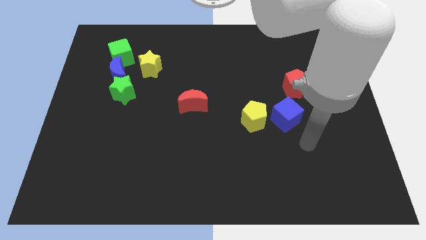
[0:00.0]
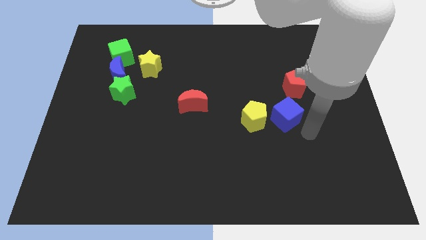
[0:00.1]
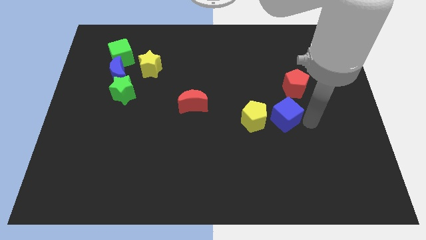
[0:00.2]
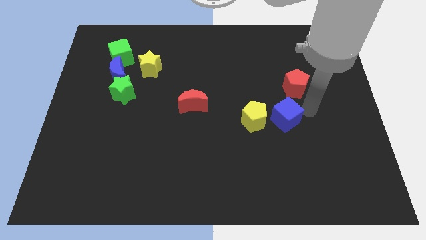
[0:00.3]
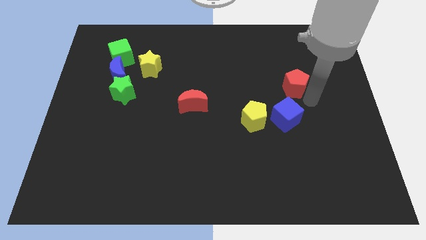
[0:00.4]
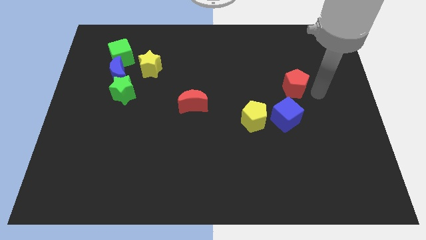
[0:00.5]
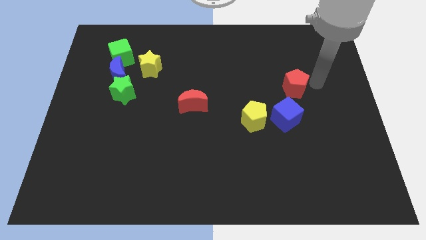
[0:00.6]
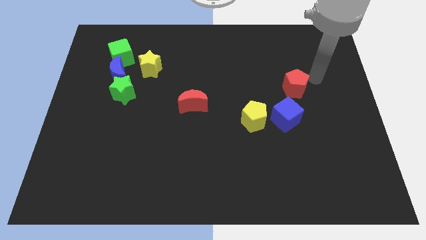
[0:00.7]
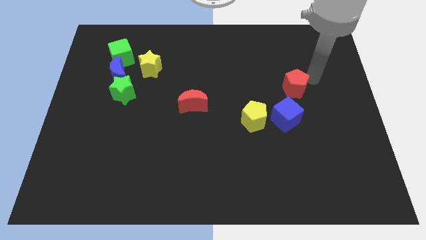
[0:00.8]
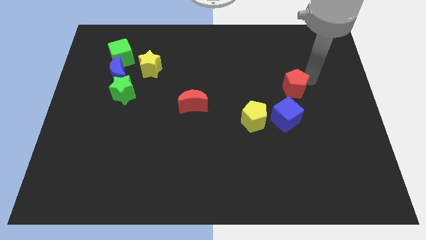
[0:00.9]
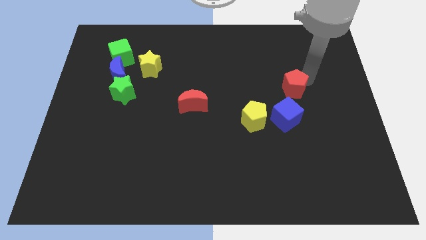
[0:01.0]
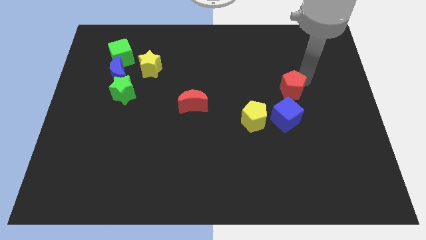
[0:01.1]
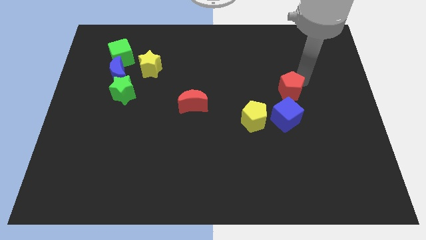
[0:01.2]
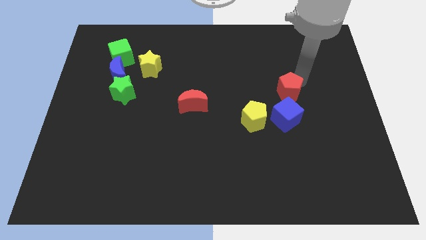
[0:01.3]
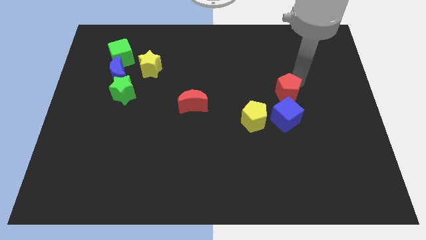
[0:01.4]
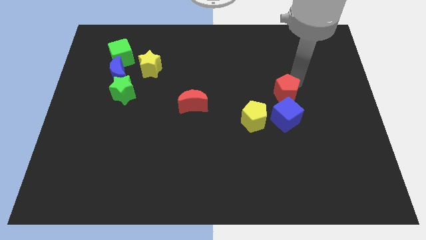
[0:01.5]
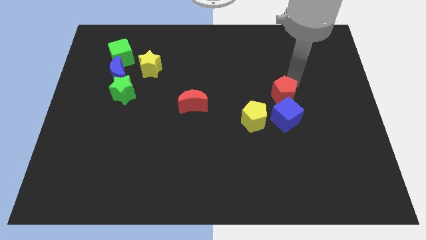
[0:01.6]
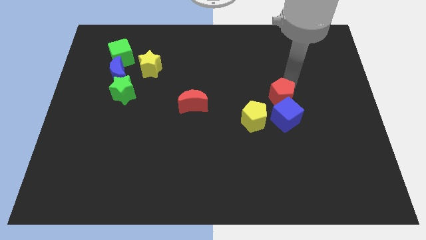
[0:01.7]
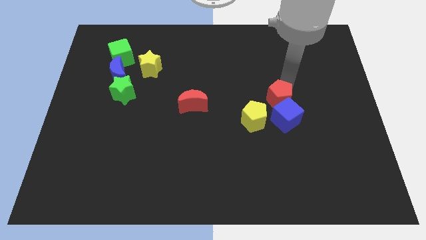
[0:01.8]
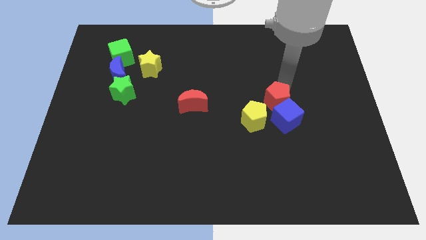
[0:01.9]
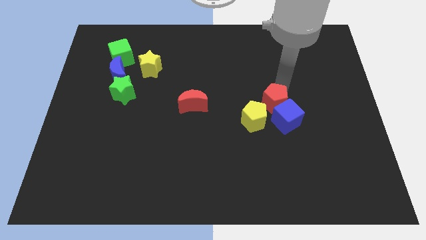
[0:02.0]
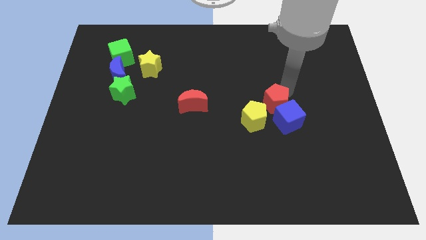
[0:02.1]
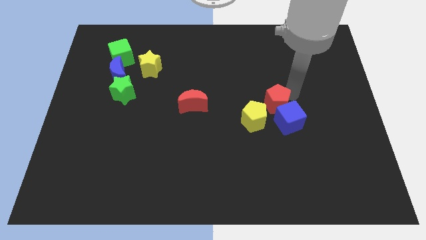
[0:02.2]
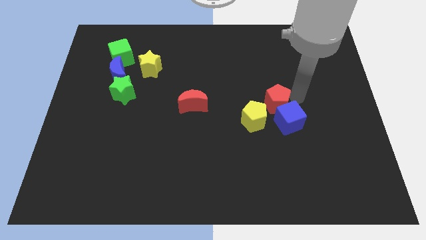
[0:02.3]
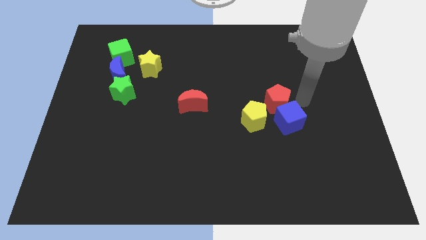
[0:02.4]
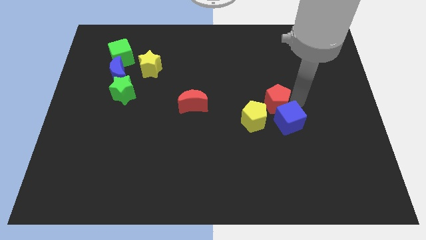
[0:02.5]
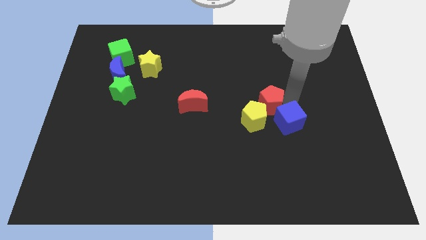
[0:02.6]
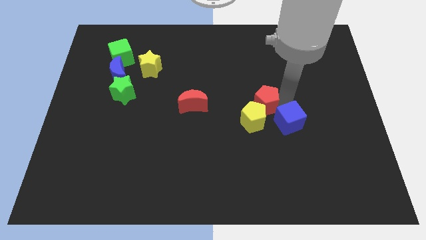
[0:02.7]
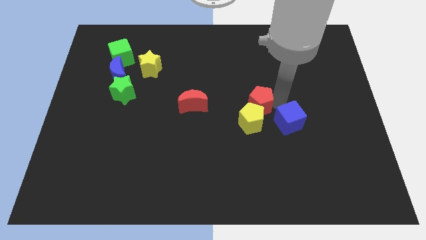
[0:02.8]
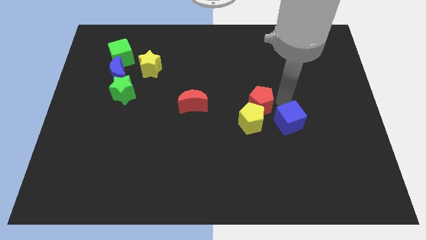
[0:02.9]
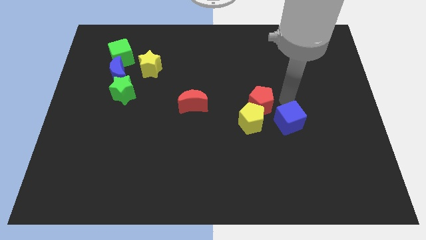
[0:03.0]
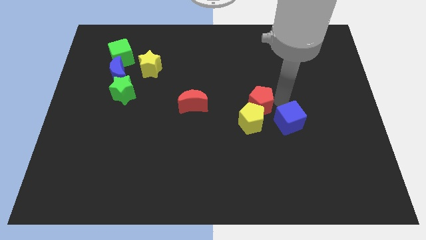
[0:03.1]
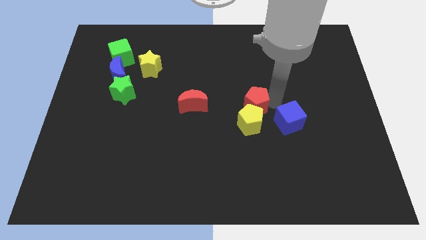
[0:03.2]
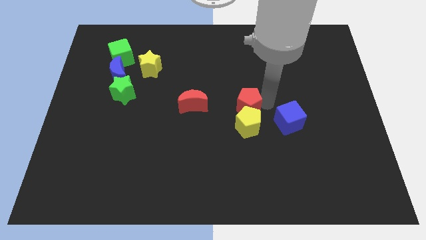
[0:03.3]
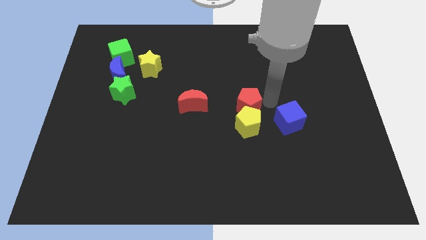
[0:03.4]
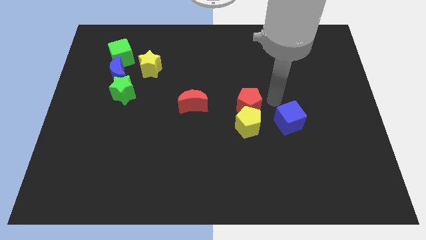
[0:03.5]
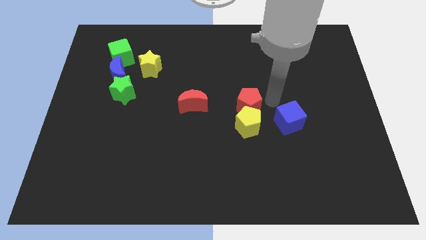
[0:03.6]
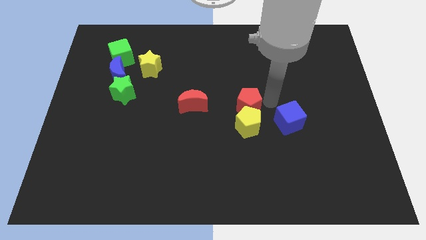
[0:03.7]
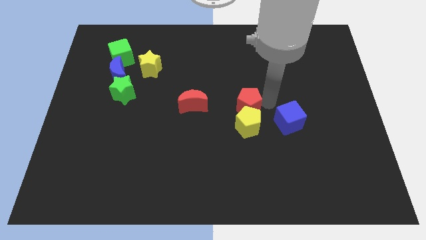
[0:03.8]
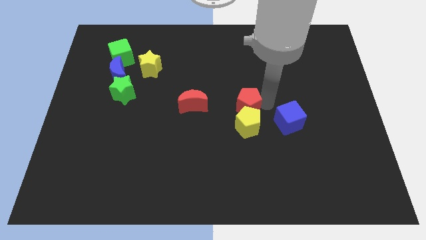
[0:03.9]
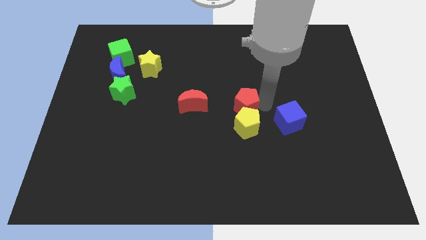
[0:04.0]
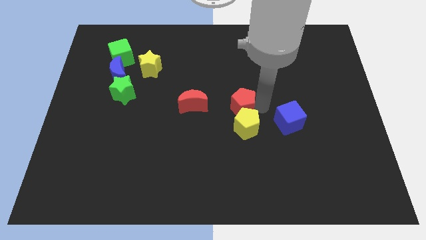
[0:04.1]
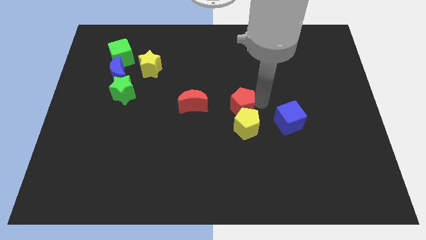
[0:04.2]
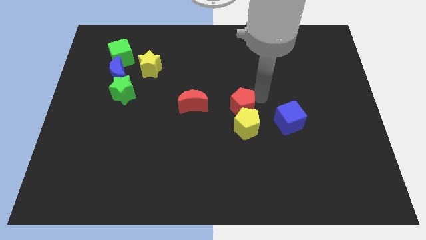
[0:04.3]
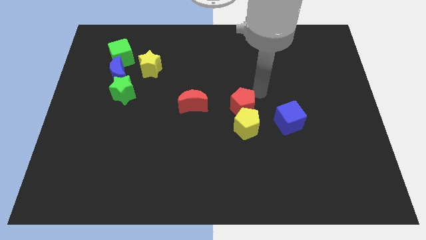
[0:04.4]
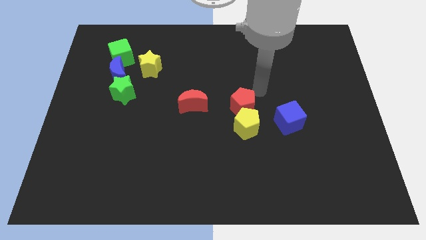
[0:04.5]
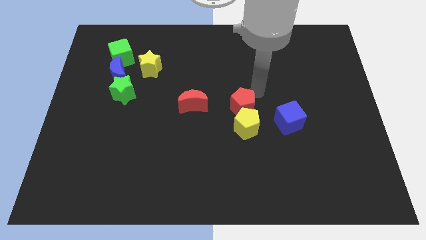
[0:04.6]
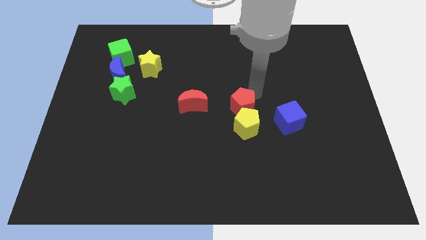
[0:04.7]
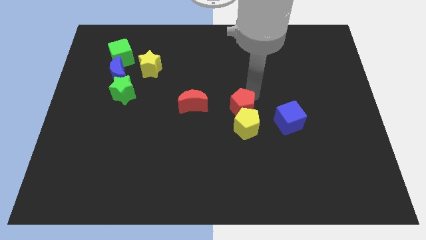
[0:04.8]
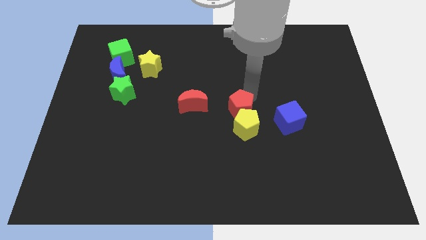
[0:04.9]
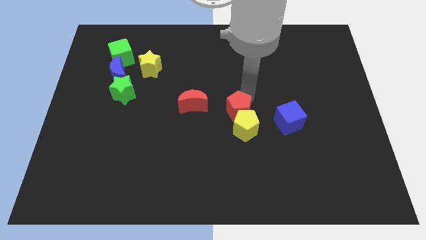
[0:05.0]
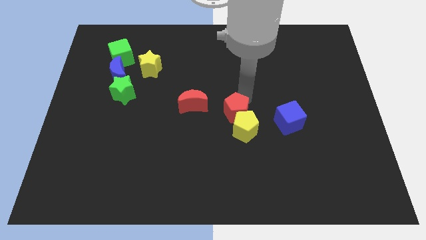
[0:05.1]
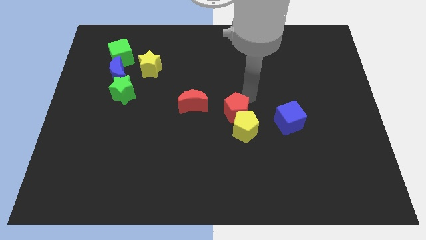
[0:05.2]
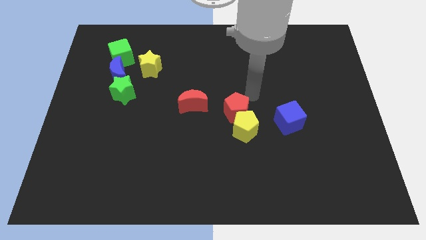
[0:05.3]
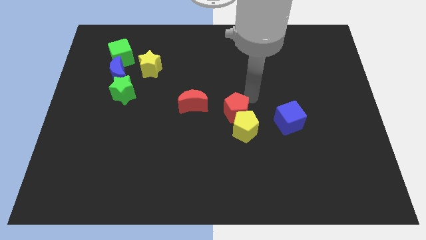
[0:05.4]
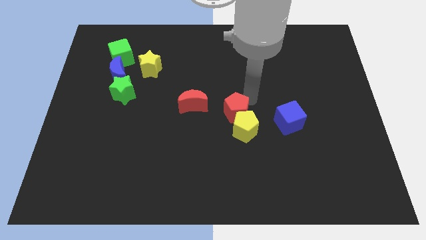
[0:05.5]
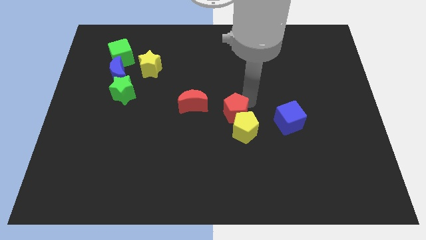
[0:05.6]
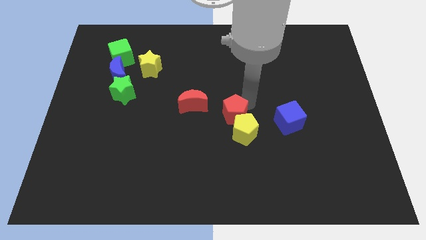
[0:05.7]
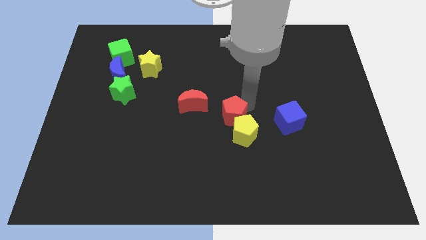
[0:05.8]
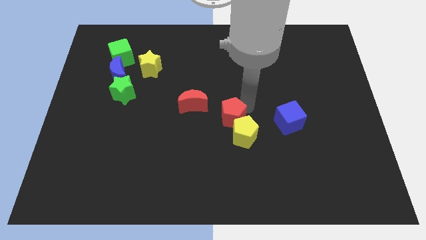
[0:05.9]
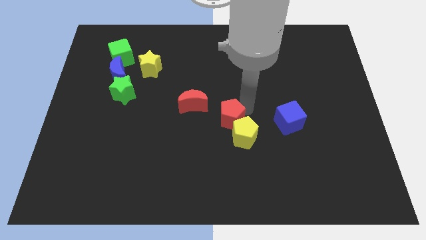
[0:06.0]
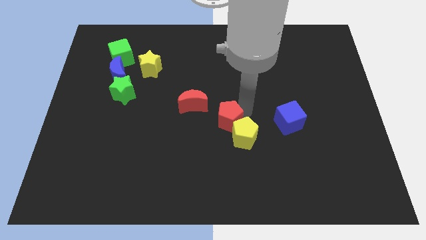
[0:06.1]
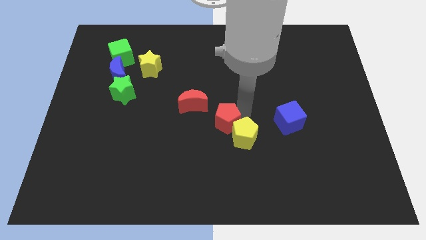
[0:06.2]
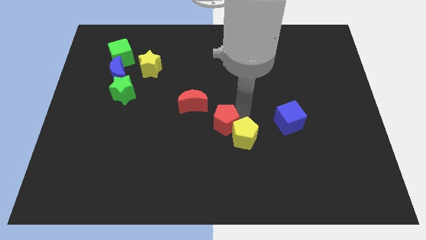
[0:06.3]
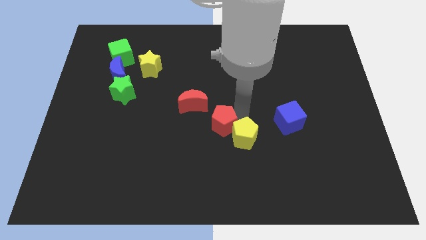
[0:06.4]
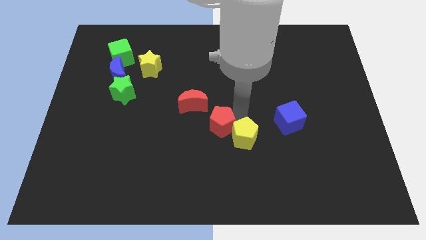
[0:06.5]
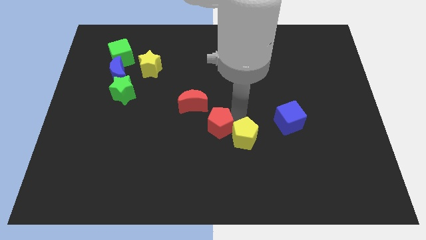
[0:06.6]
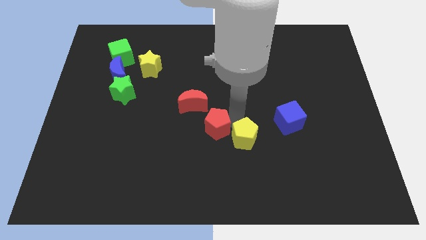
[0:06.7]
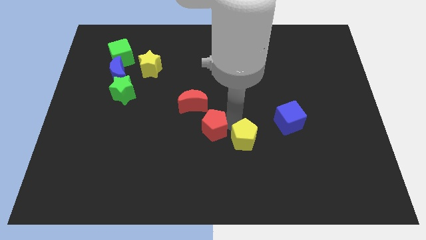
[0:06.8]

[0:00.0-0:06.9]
move the red pentagon below the red moon

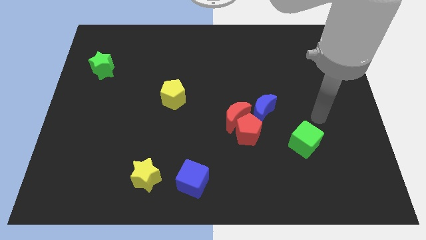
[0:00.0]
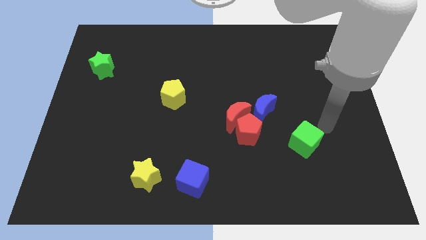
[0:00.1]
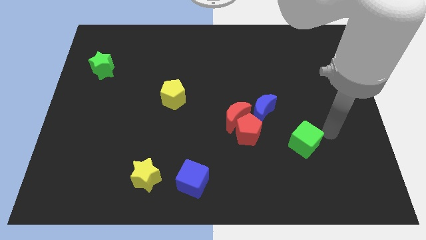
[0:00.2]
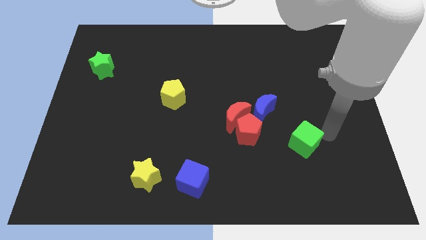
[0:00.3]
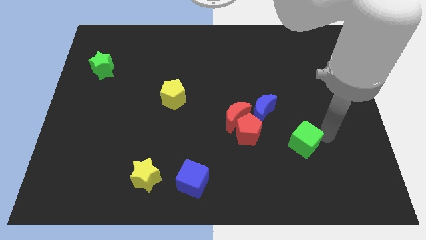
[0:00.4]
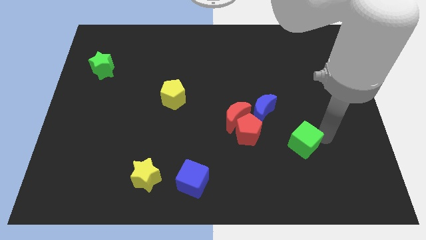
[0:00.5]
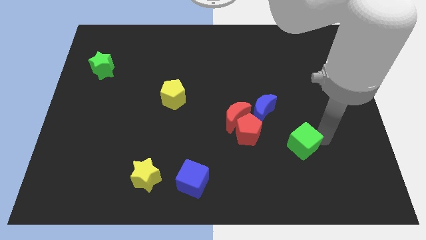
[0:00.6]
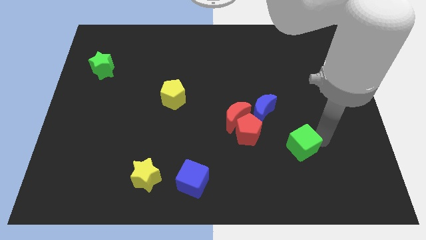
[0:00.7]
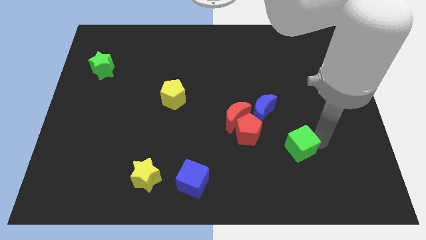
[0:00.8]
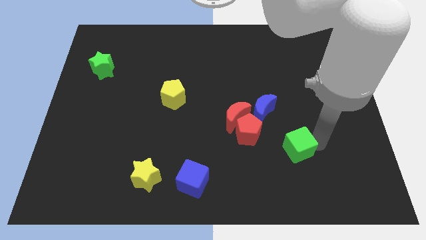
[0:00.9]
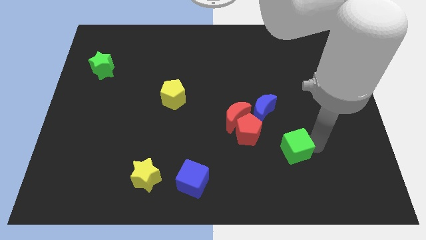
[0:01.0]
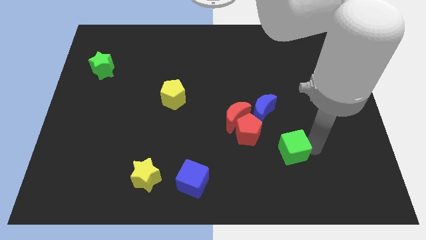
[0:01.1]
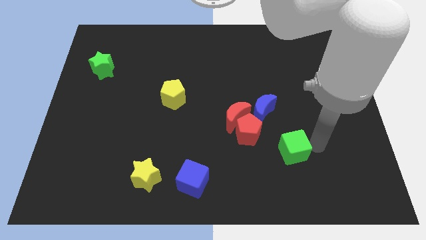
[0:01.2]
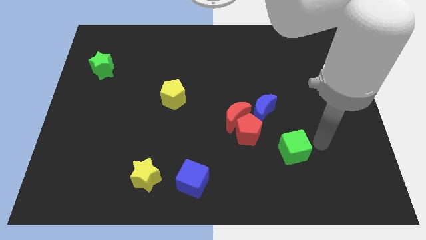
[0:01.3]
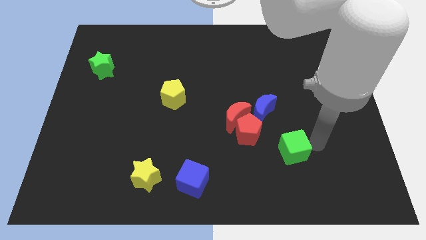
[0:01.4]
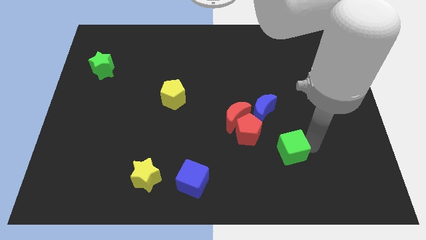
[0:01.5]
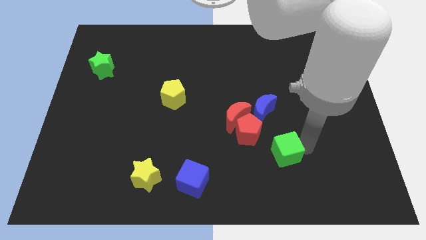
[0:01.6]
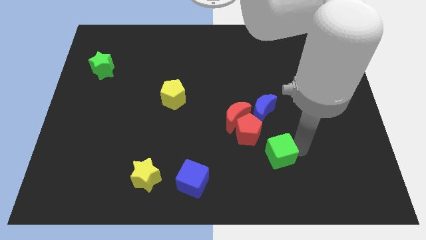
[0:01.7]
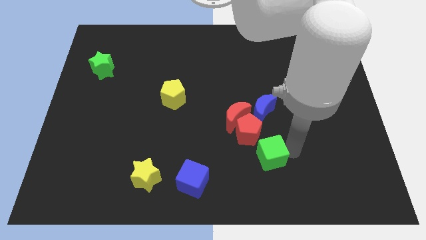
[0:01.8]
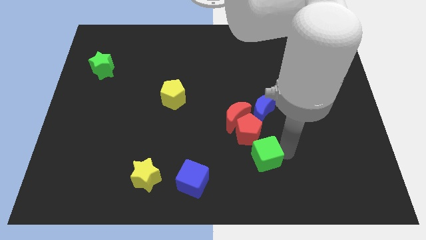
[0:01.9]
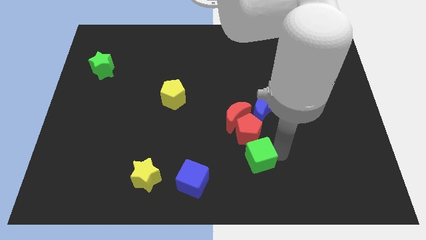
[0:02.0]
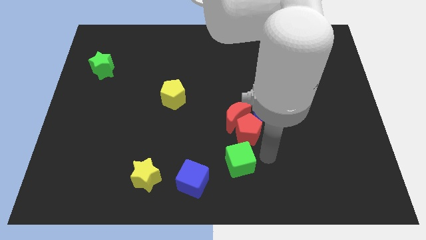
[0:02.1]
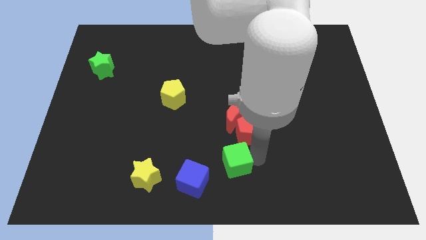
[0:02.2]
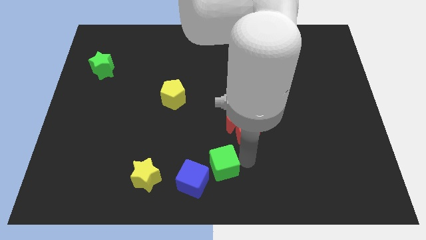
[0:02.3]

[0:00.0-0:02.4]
move the green cube to the right side of the yellow star
